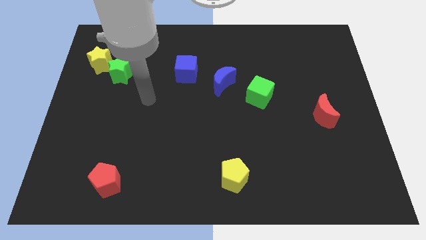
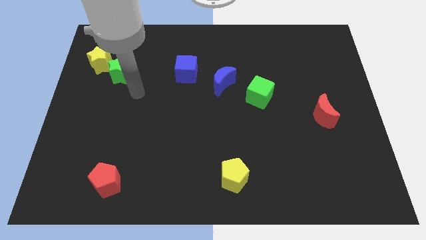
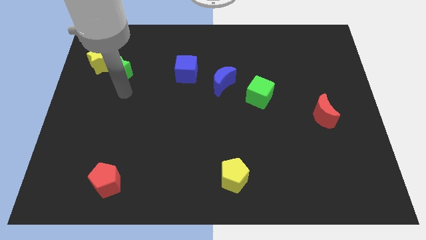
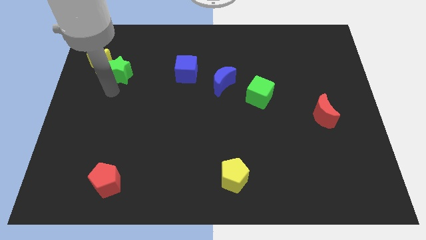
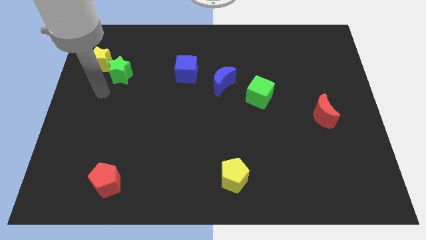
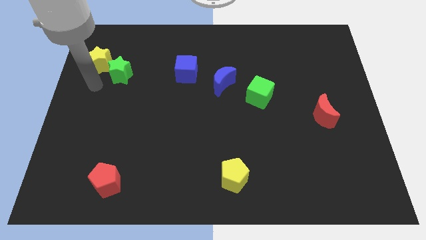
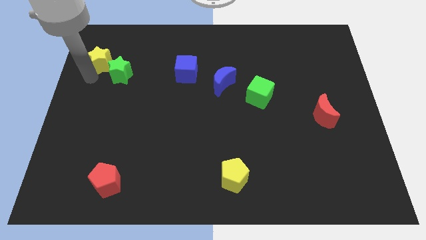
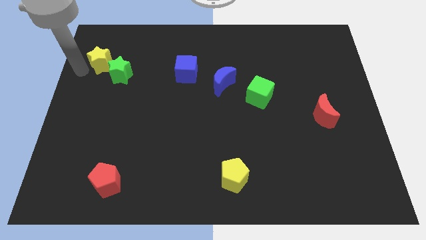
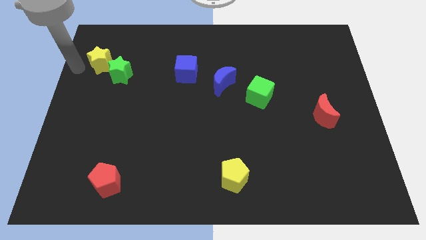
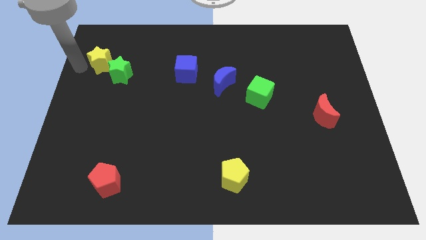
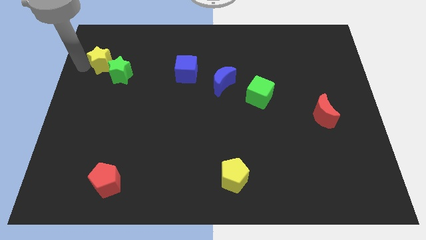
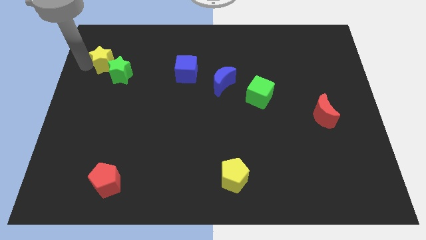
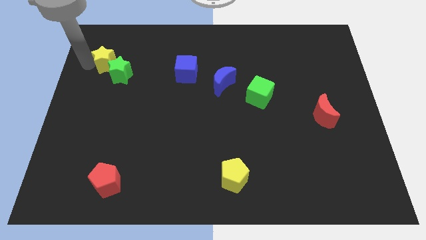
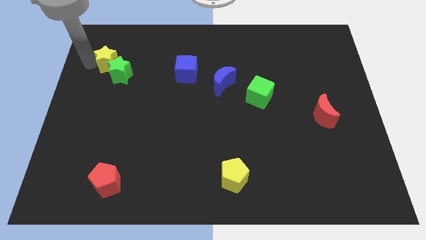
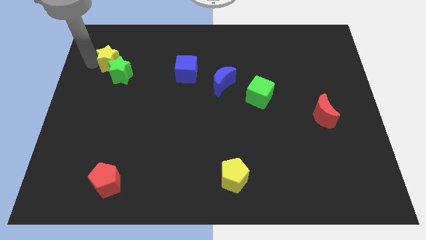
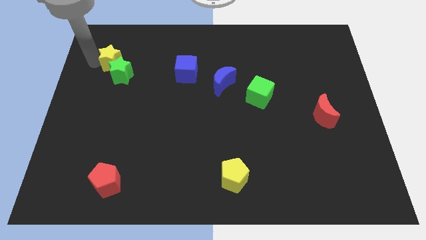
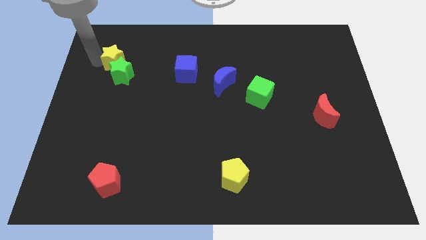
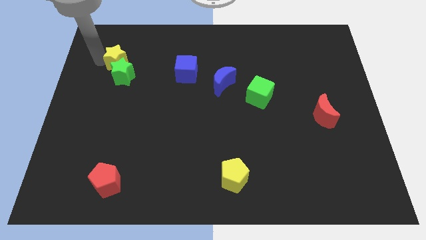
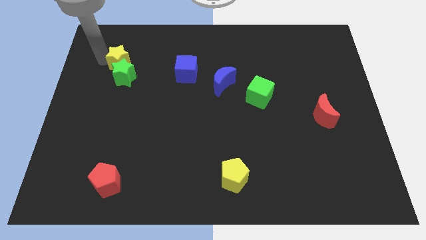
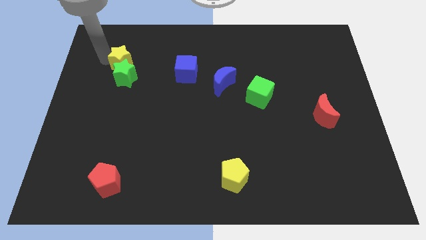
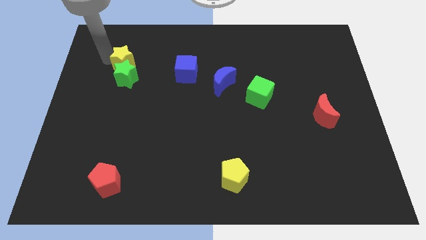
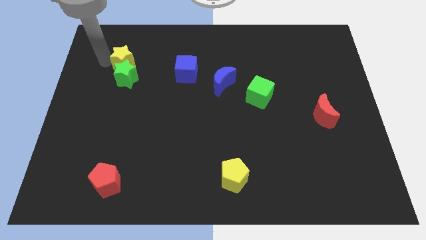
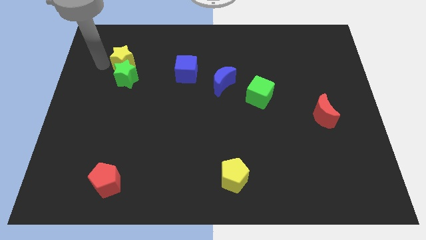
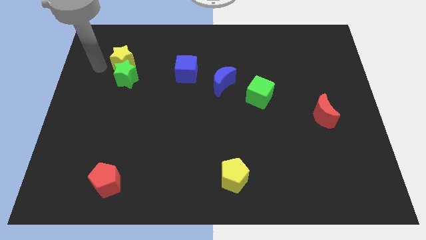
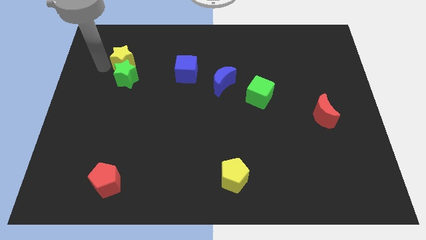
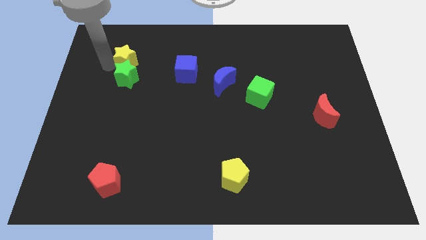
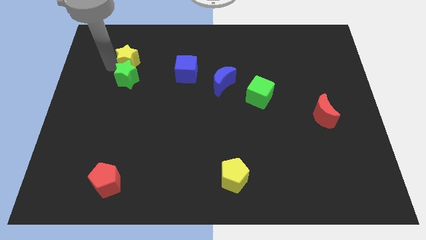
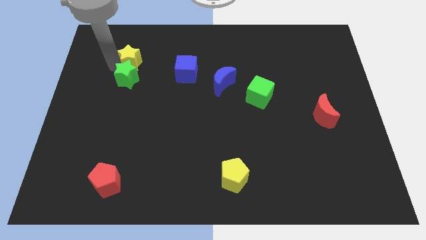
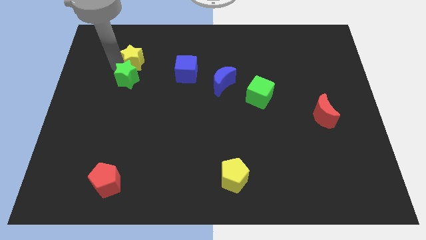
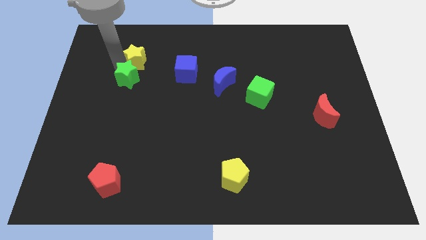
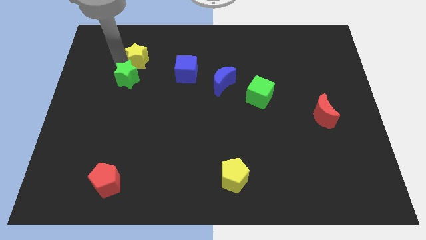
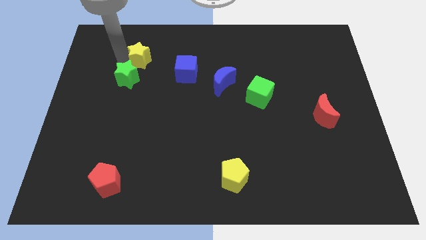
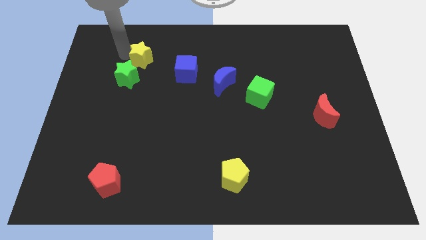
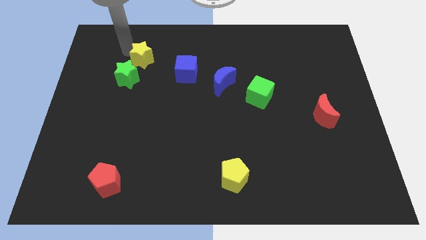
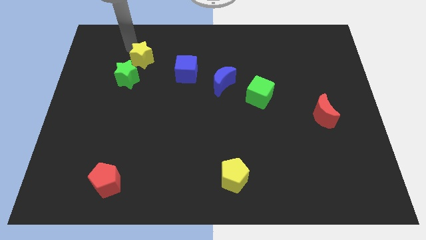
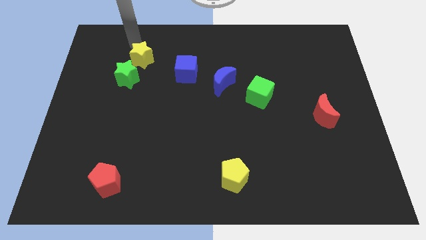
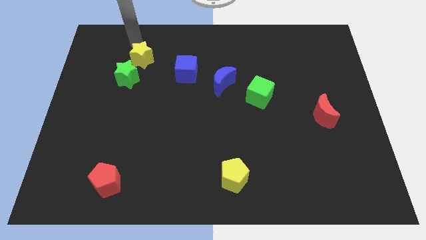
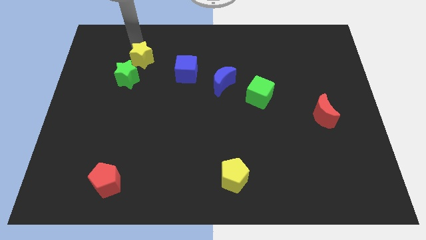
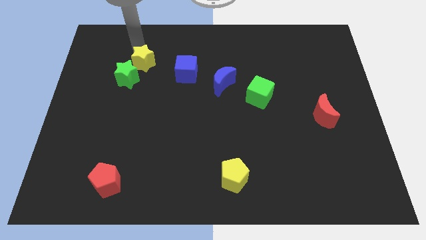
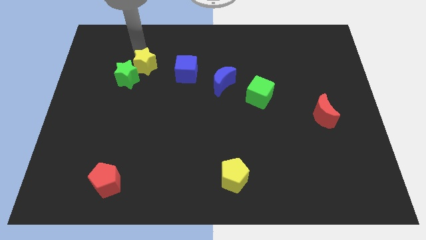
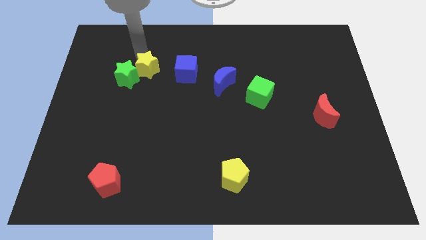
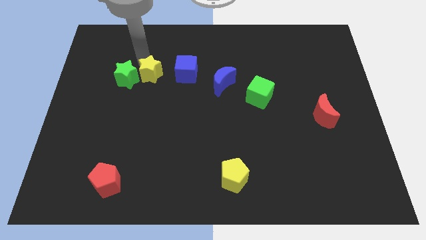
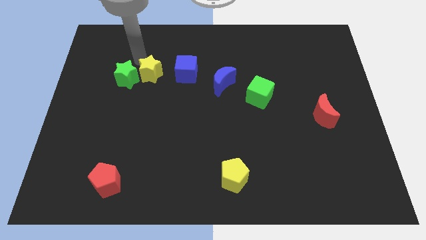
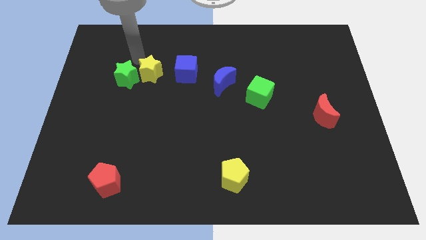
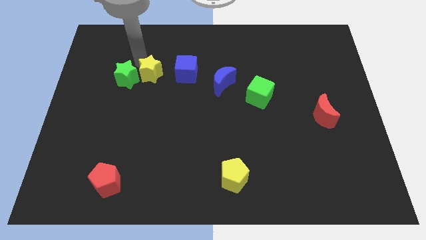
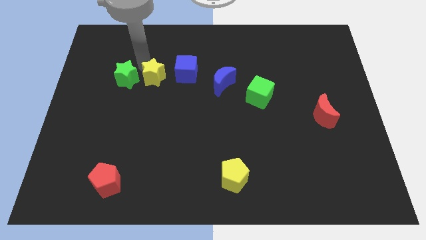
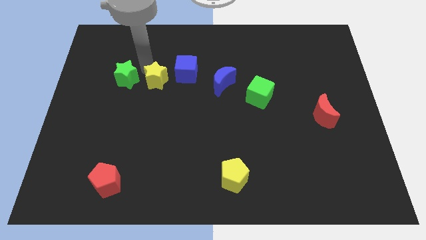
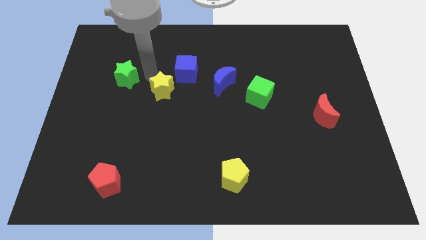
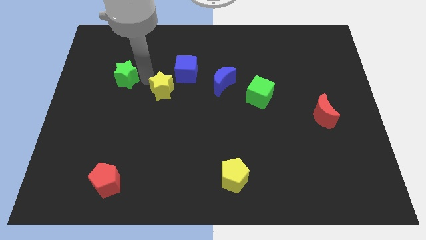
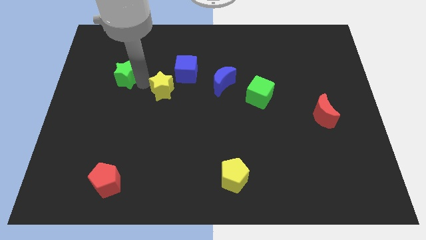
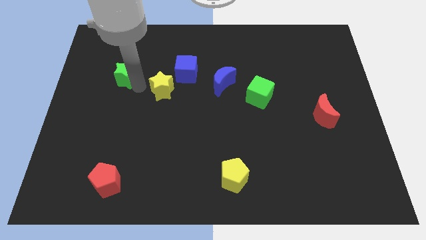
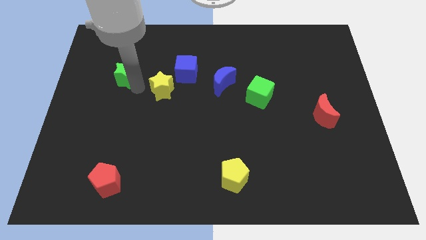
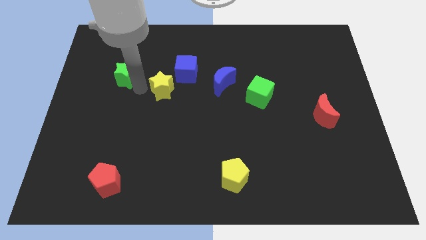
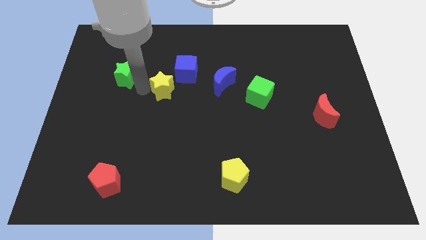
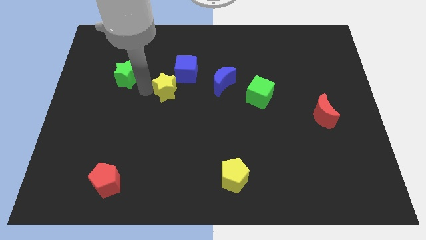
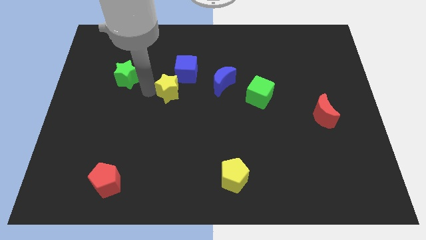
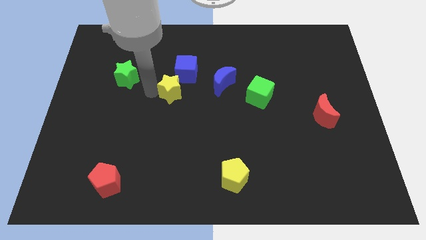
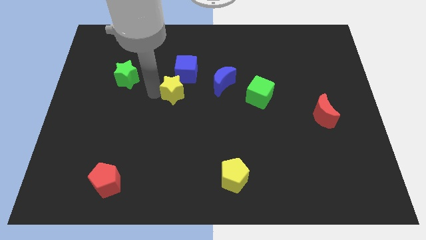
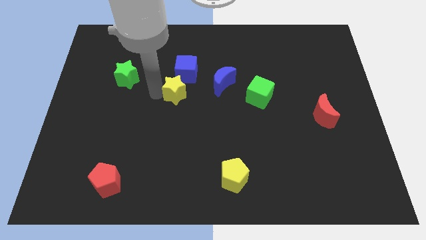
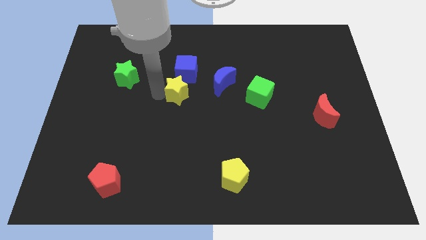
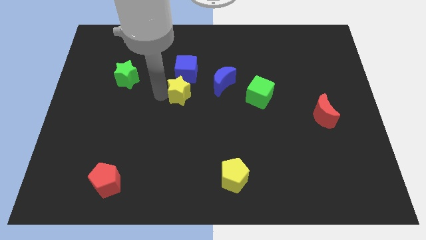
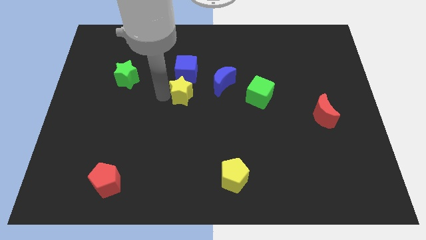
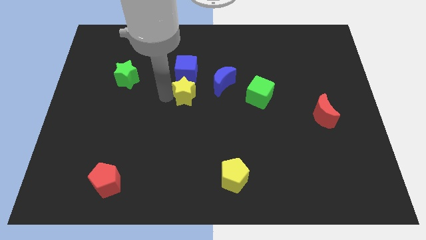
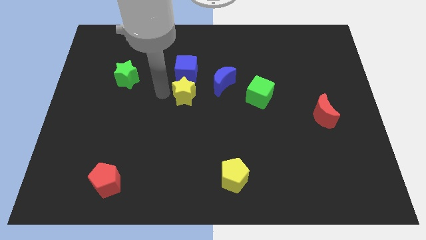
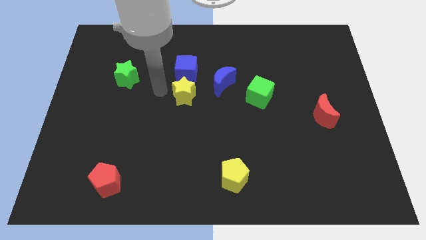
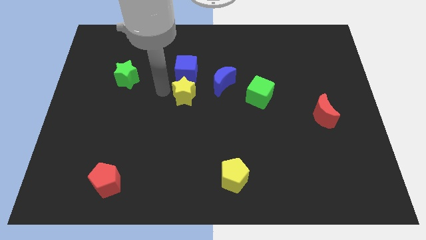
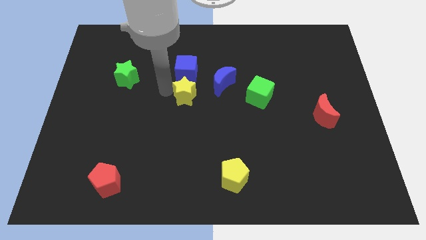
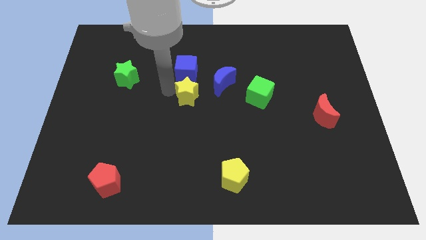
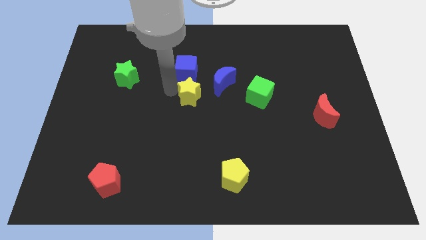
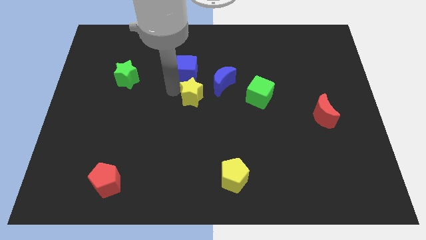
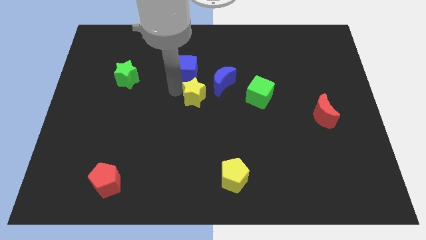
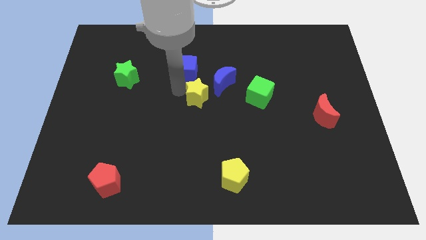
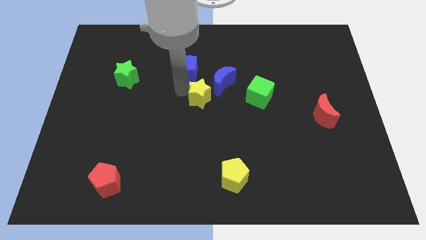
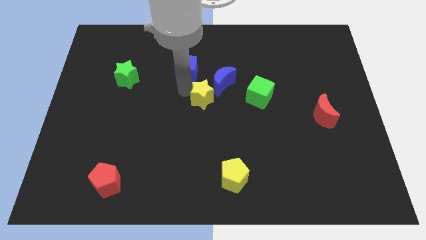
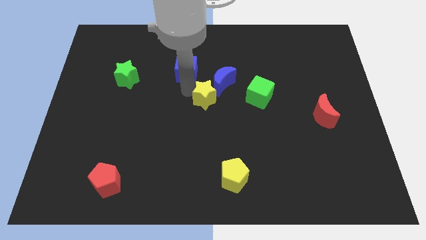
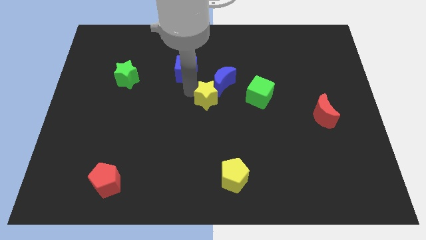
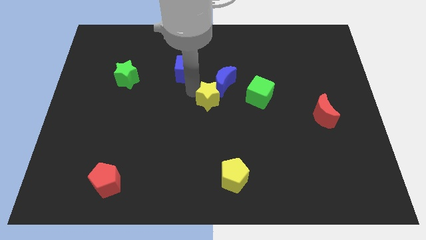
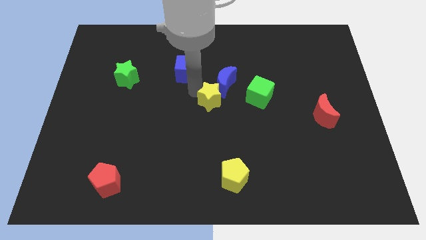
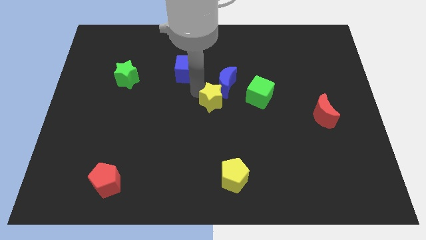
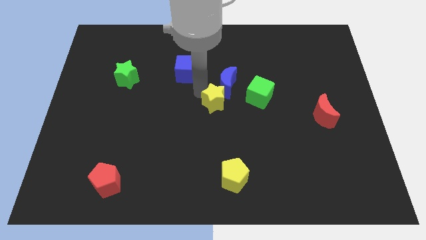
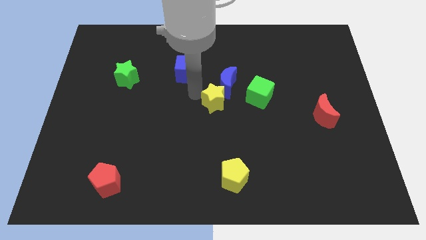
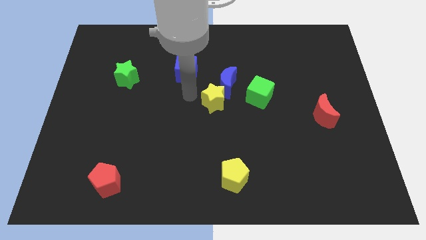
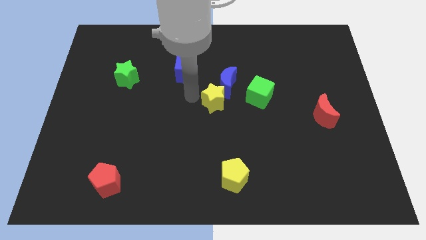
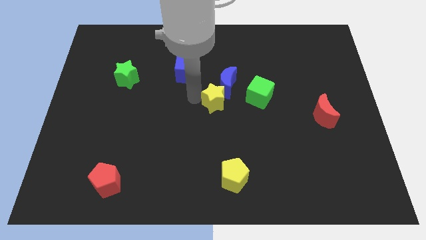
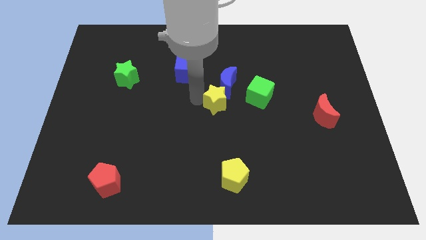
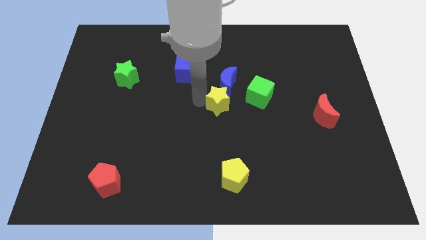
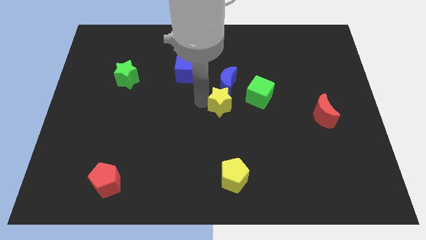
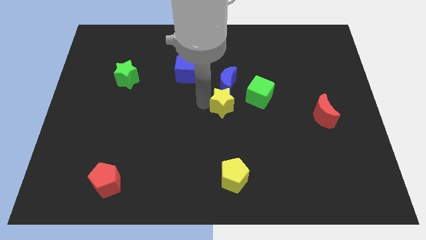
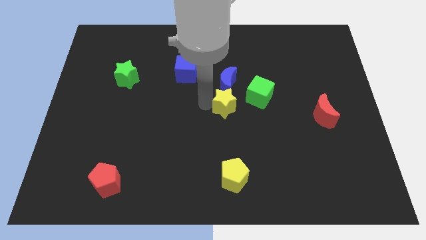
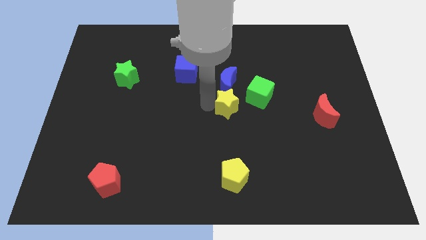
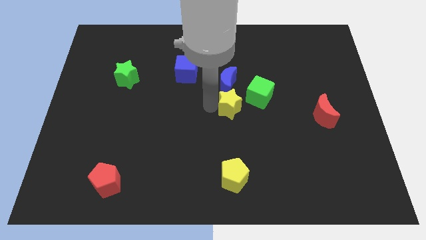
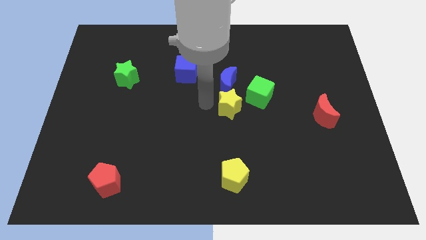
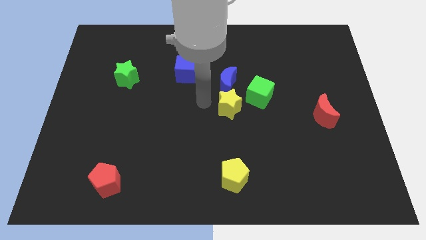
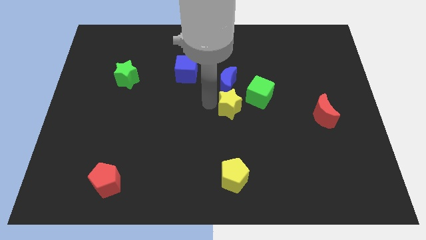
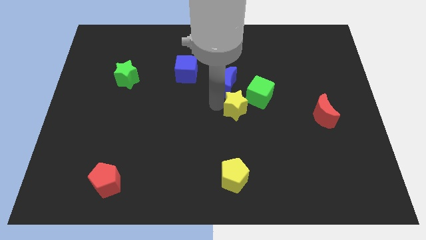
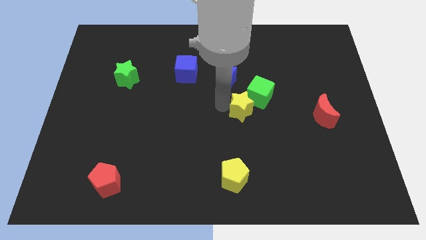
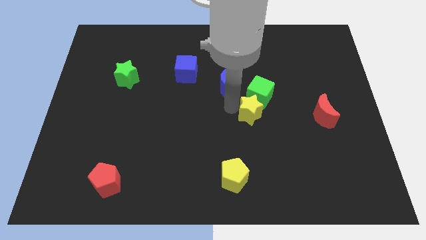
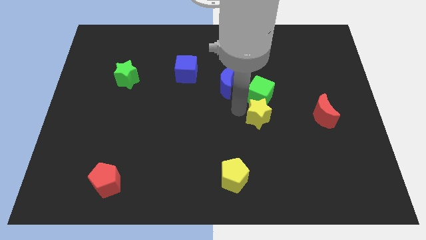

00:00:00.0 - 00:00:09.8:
push the yellow star just left of the red moon
